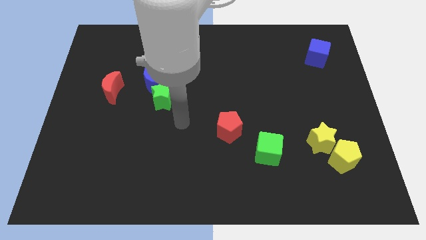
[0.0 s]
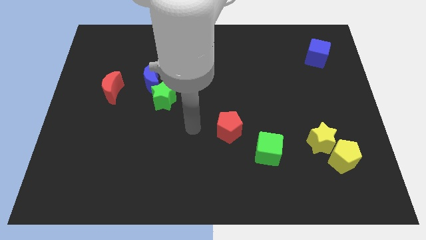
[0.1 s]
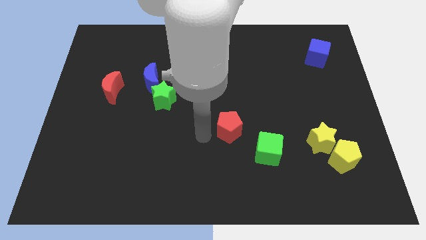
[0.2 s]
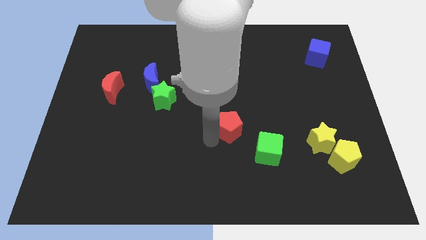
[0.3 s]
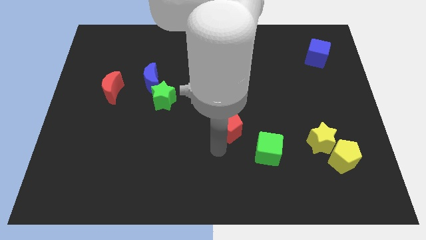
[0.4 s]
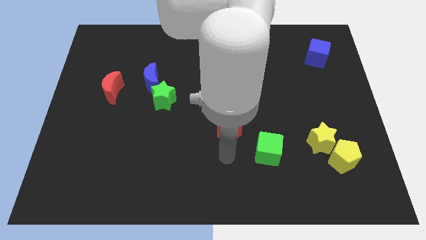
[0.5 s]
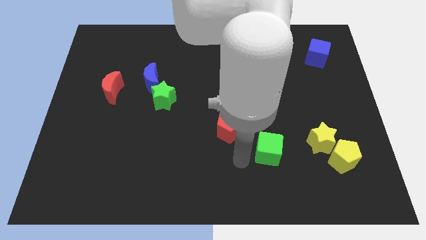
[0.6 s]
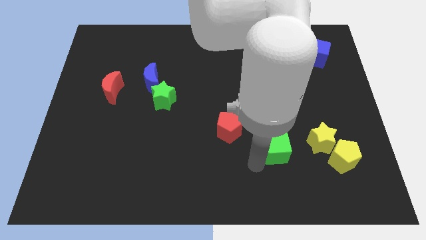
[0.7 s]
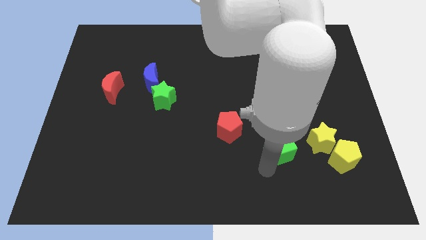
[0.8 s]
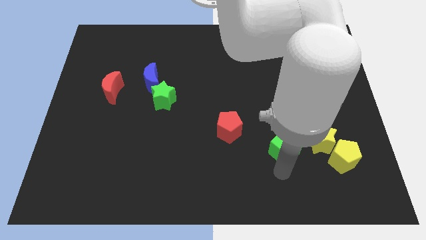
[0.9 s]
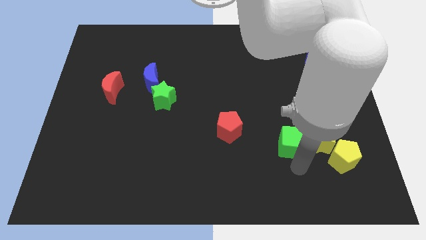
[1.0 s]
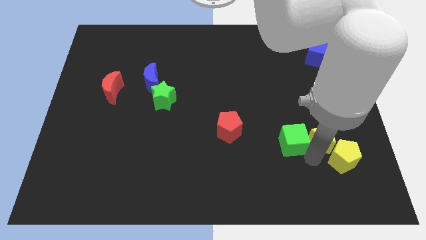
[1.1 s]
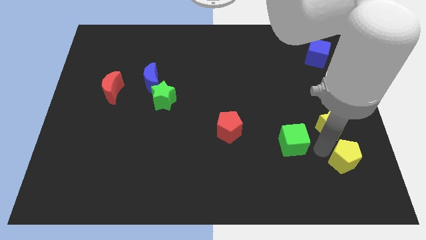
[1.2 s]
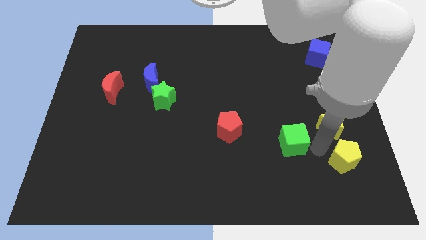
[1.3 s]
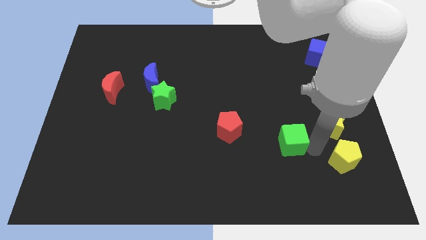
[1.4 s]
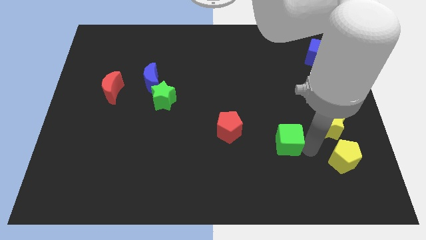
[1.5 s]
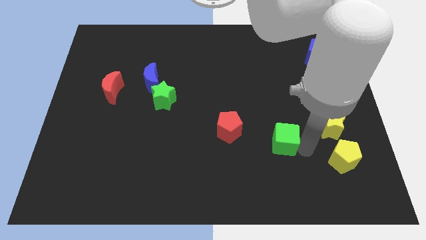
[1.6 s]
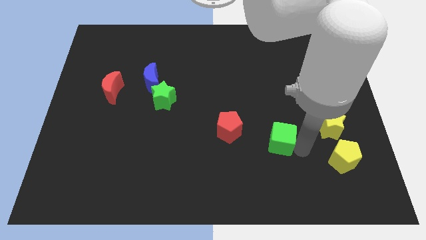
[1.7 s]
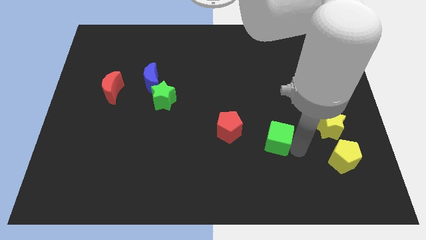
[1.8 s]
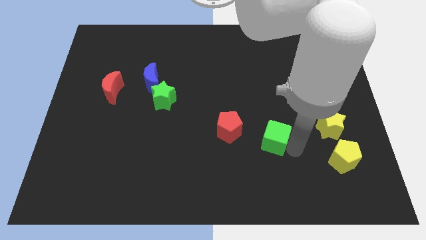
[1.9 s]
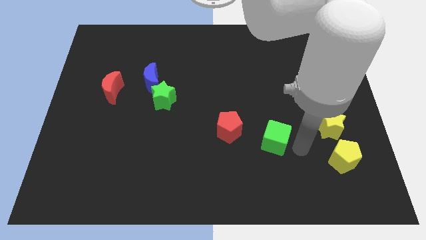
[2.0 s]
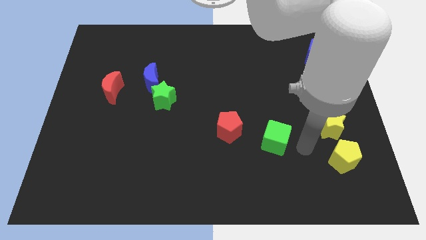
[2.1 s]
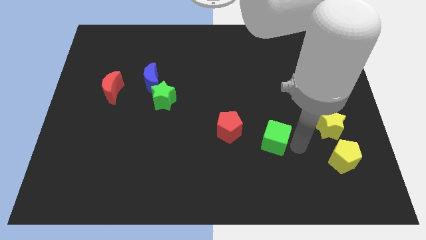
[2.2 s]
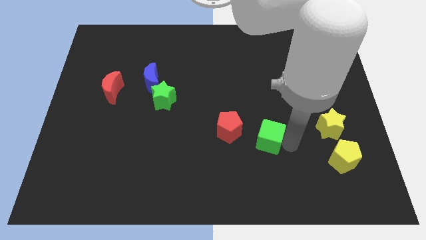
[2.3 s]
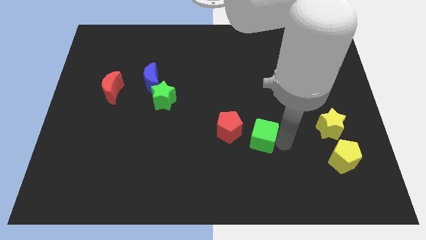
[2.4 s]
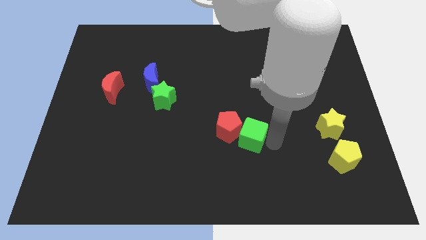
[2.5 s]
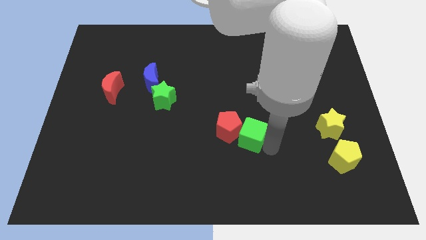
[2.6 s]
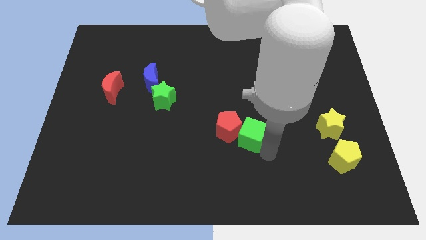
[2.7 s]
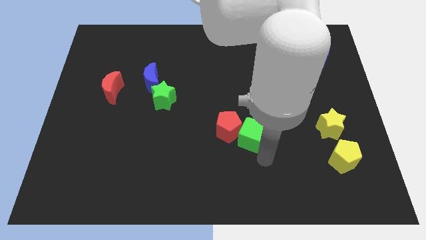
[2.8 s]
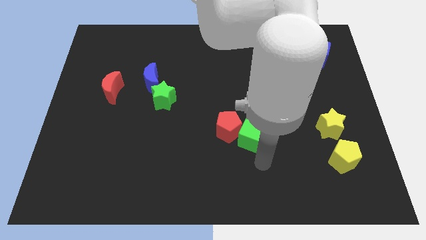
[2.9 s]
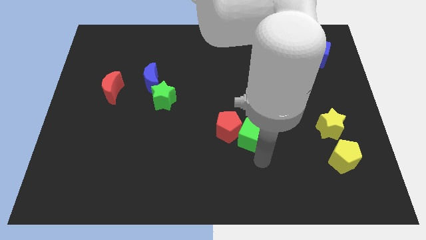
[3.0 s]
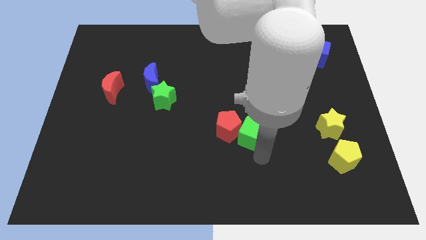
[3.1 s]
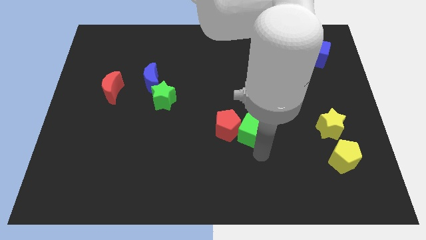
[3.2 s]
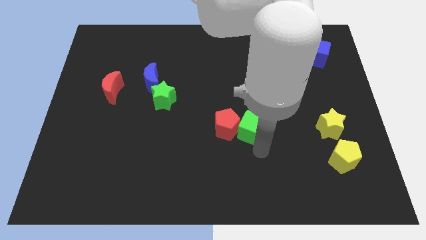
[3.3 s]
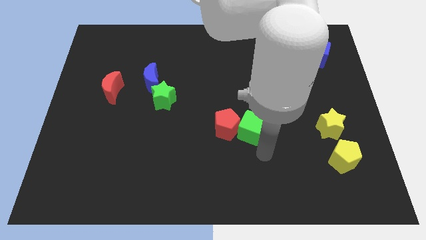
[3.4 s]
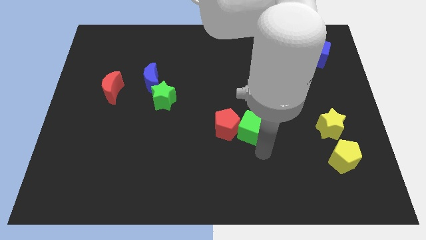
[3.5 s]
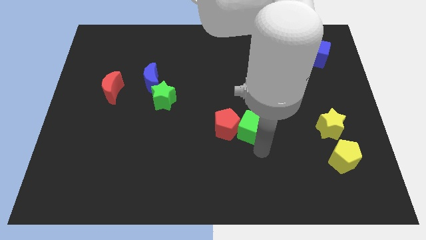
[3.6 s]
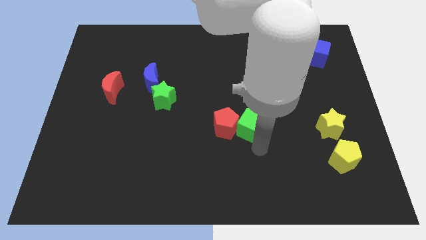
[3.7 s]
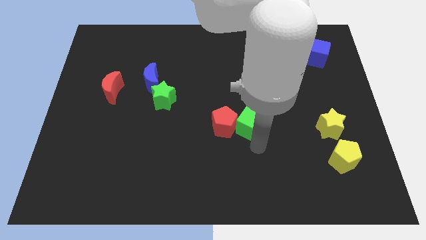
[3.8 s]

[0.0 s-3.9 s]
slightly push the green cube upwards and left

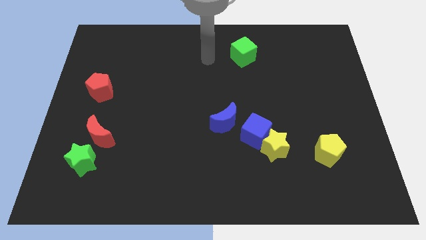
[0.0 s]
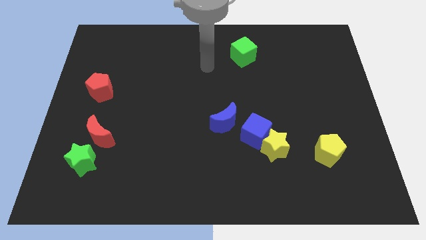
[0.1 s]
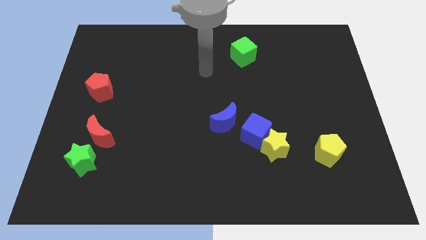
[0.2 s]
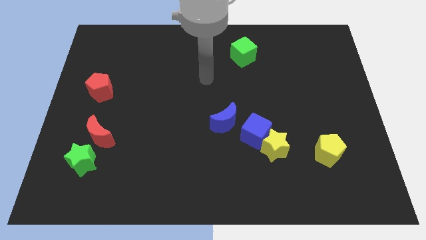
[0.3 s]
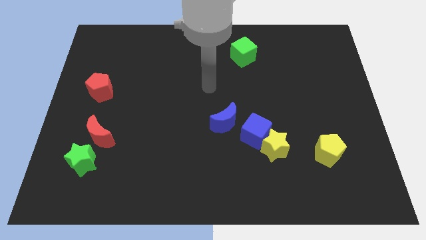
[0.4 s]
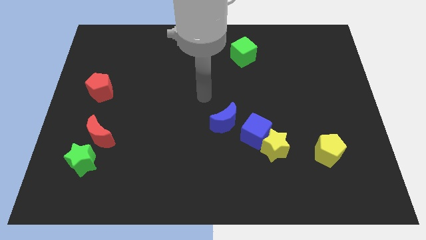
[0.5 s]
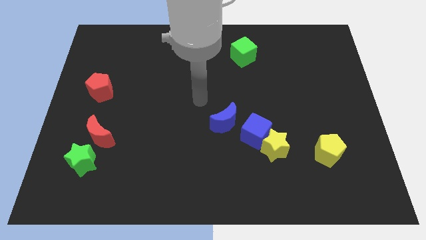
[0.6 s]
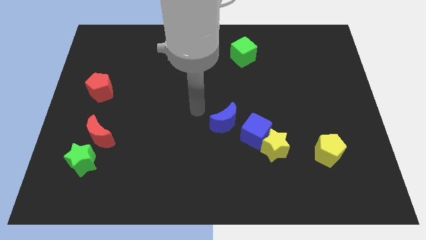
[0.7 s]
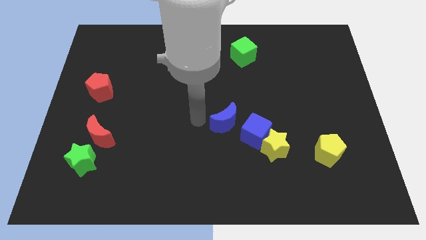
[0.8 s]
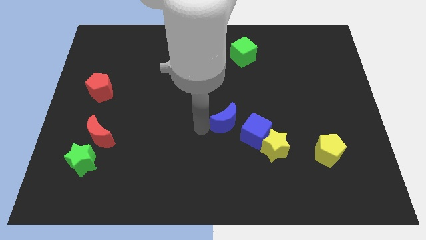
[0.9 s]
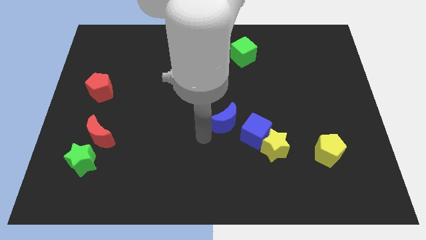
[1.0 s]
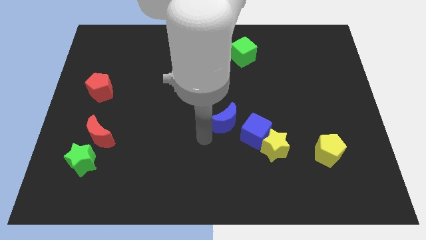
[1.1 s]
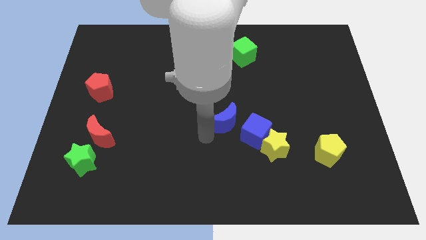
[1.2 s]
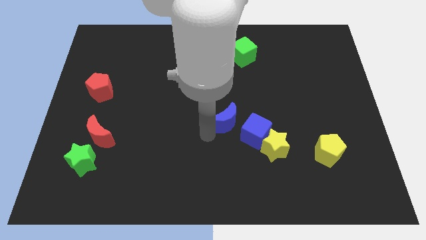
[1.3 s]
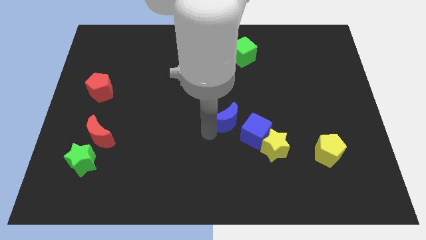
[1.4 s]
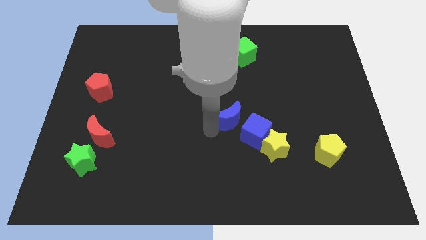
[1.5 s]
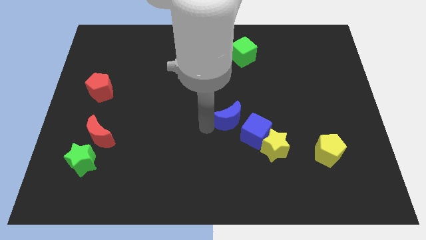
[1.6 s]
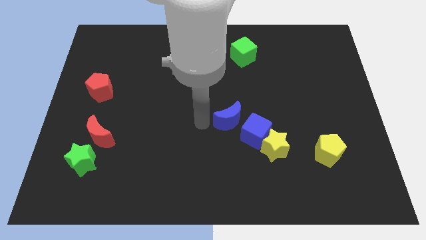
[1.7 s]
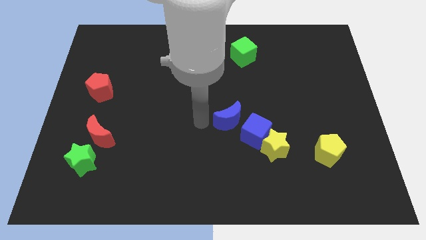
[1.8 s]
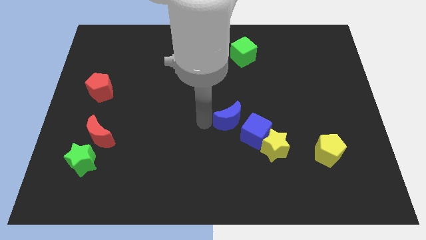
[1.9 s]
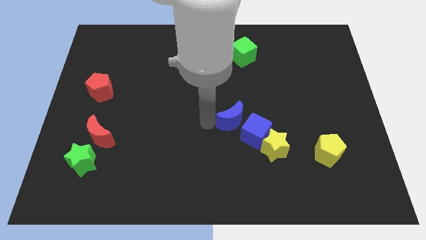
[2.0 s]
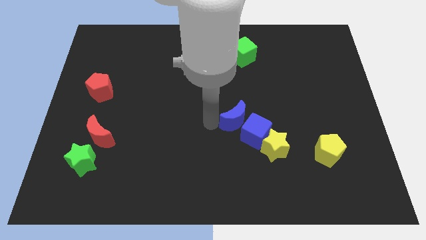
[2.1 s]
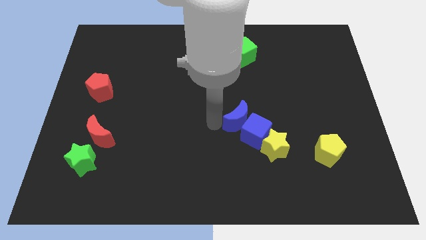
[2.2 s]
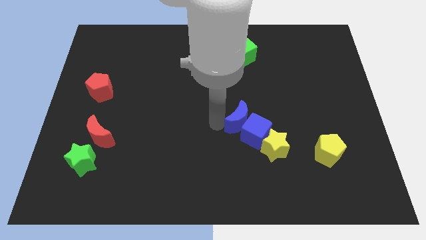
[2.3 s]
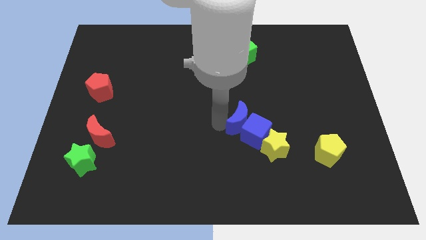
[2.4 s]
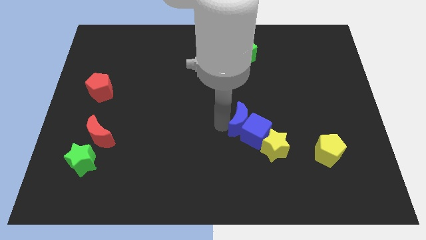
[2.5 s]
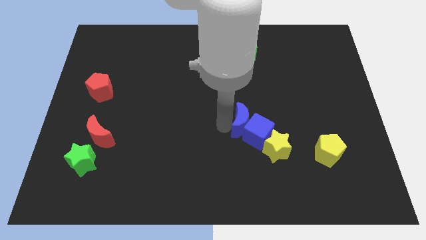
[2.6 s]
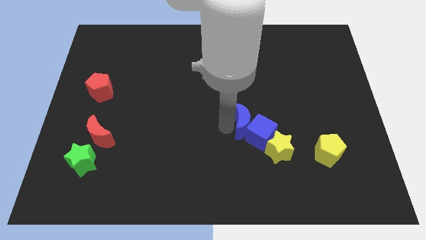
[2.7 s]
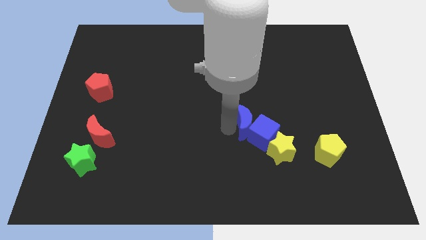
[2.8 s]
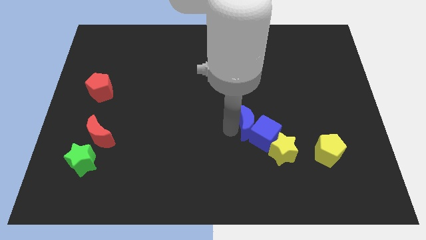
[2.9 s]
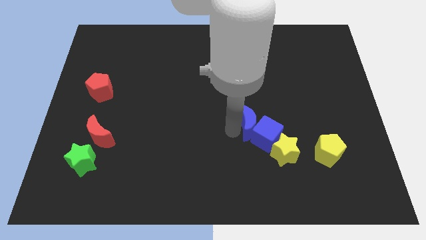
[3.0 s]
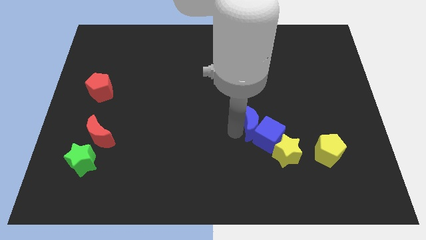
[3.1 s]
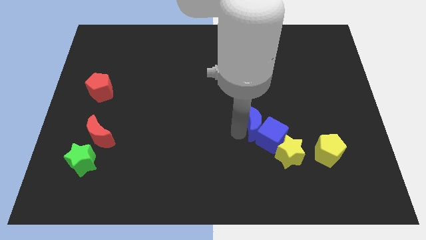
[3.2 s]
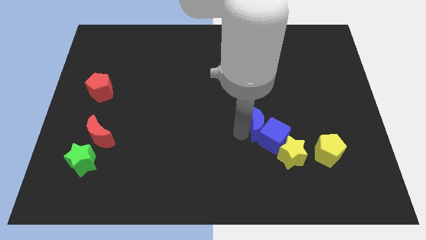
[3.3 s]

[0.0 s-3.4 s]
move the blue moon a little bit to the right

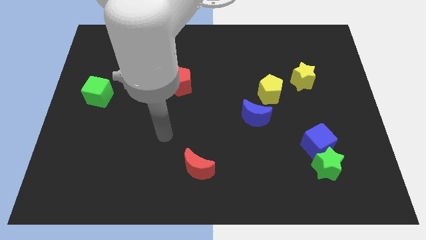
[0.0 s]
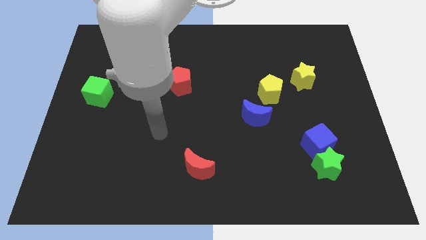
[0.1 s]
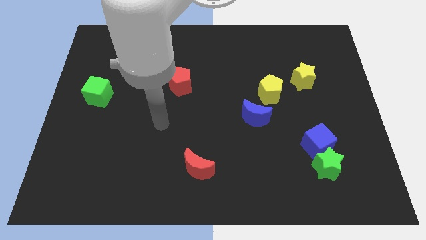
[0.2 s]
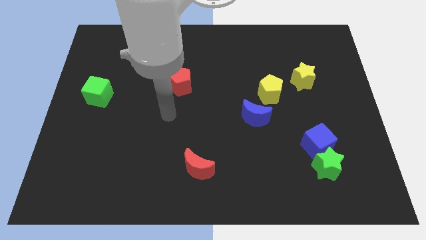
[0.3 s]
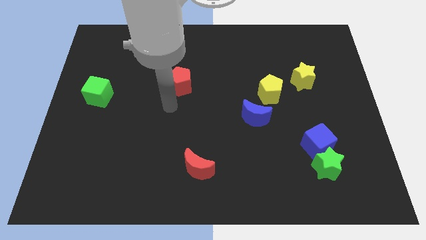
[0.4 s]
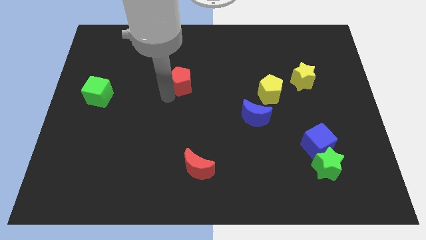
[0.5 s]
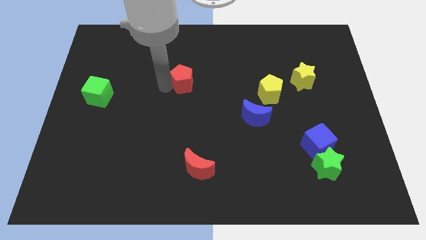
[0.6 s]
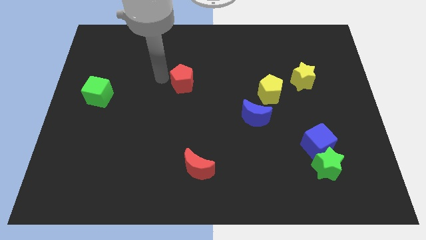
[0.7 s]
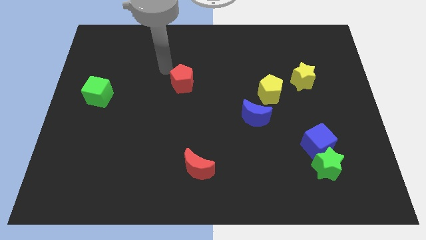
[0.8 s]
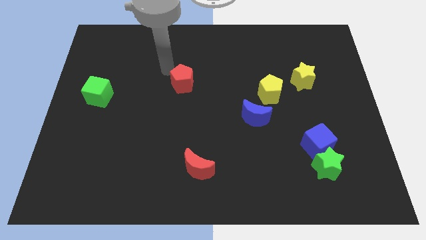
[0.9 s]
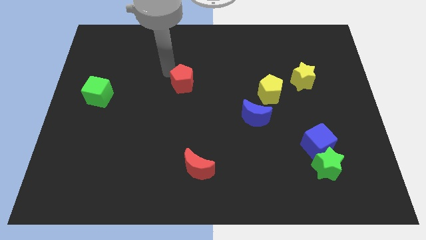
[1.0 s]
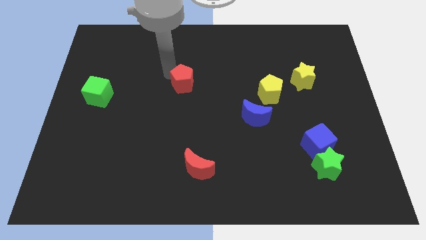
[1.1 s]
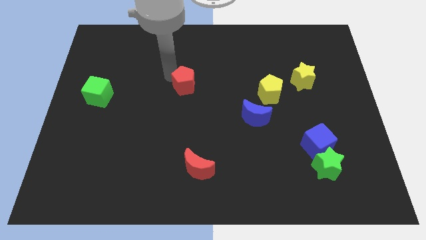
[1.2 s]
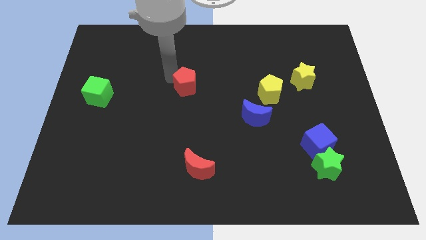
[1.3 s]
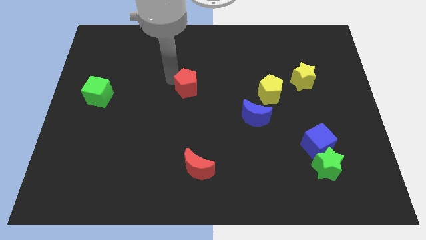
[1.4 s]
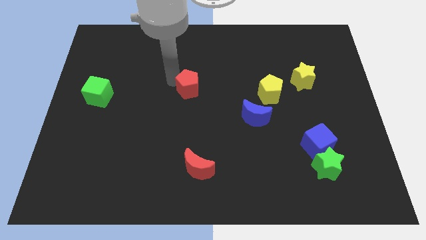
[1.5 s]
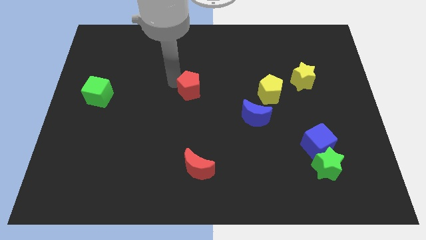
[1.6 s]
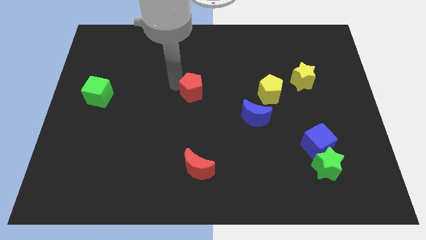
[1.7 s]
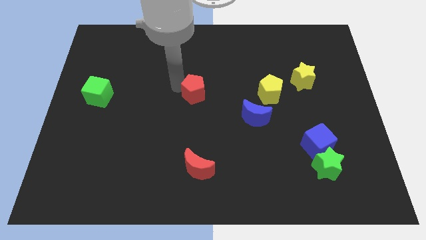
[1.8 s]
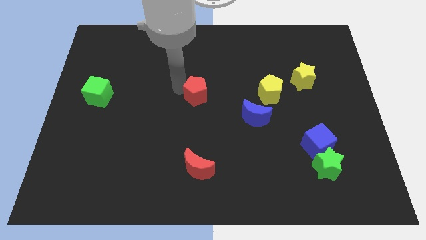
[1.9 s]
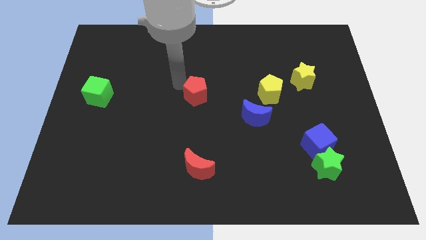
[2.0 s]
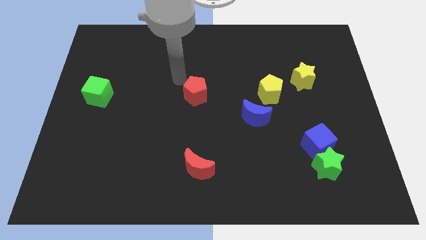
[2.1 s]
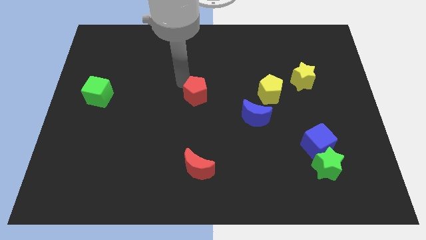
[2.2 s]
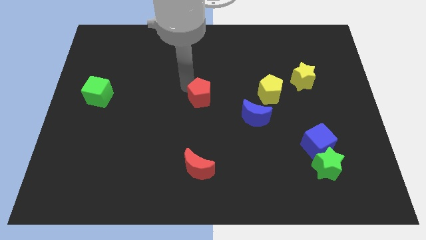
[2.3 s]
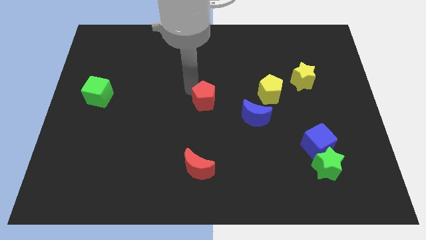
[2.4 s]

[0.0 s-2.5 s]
move the red pentagon a bit down and then right
